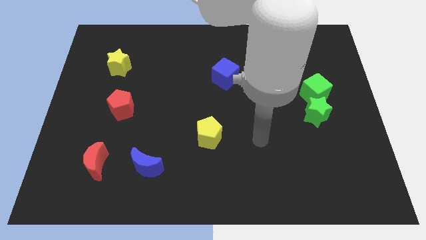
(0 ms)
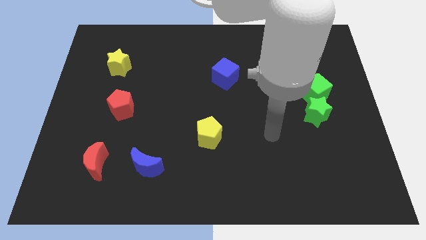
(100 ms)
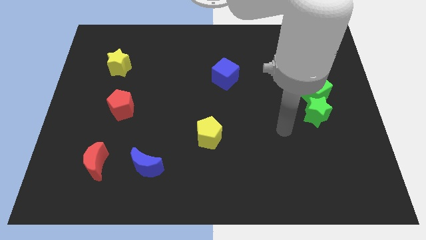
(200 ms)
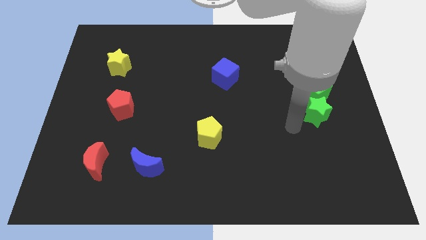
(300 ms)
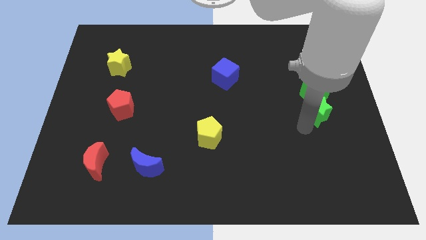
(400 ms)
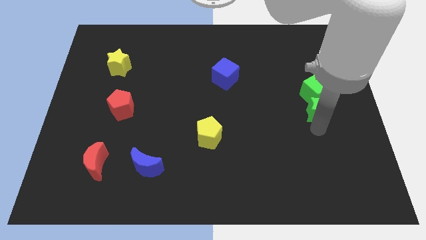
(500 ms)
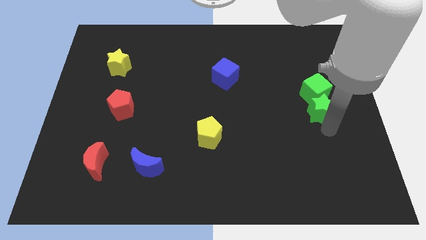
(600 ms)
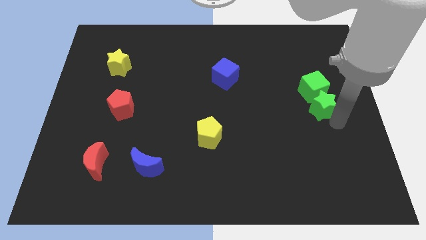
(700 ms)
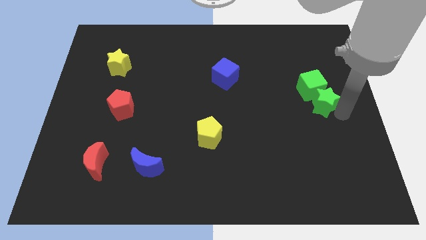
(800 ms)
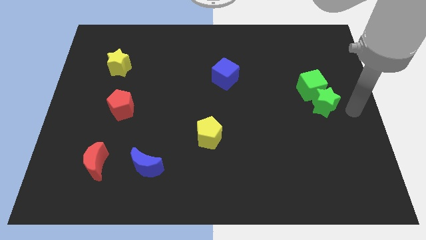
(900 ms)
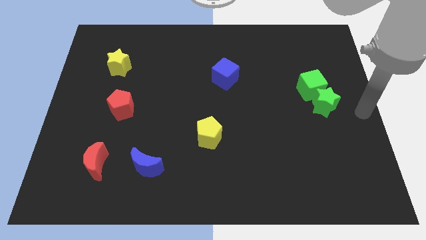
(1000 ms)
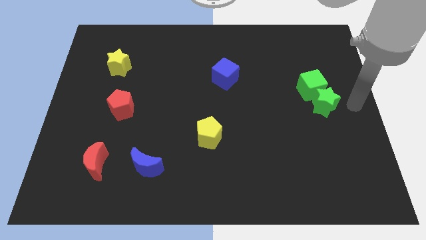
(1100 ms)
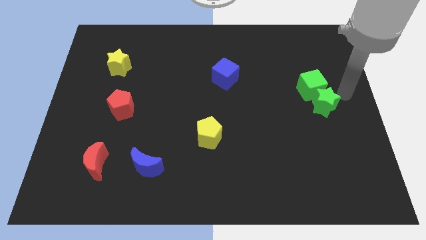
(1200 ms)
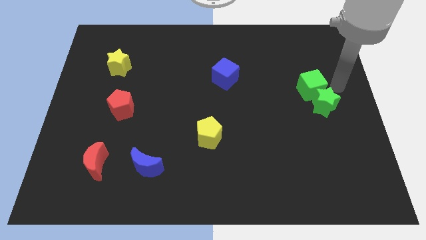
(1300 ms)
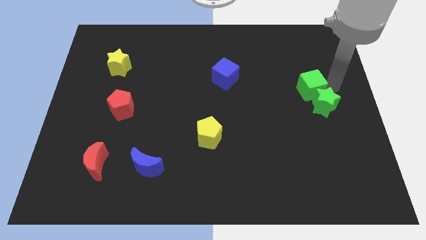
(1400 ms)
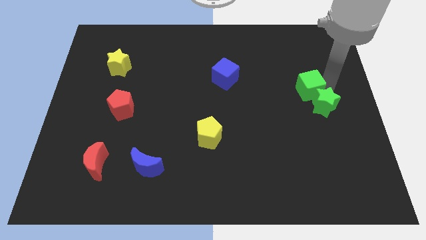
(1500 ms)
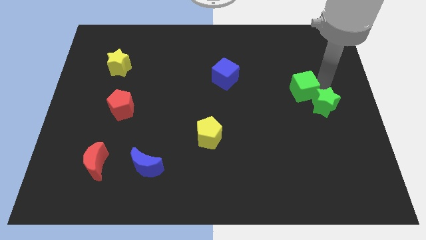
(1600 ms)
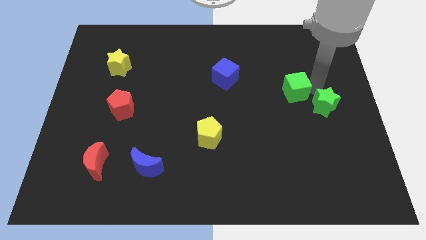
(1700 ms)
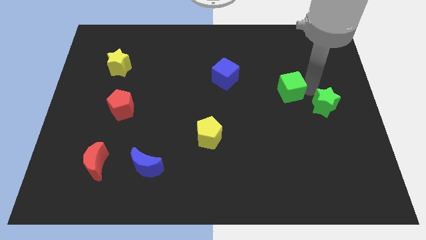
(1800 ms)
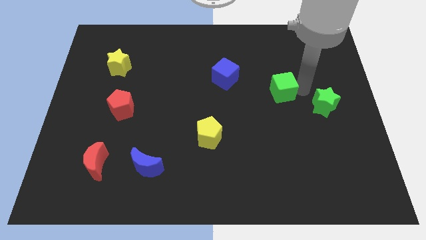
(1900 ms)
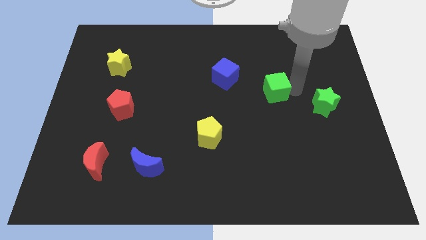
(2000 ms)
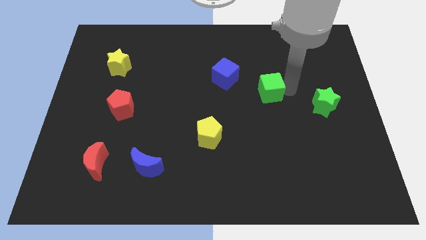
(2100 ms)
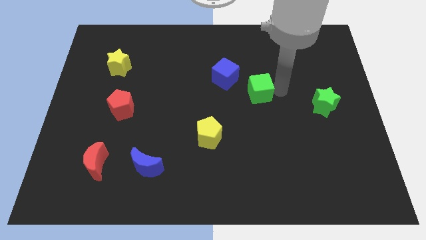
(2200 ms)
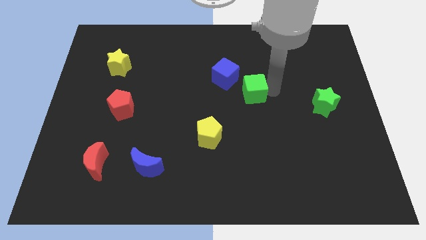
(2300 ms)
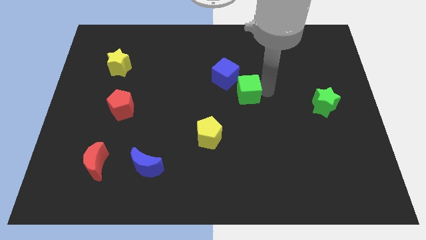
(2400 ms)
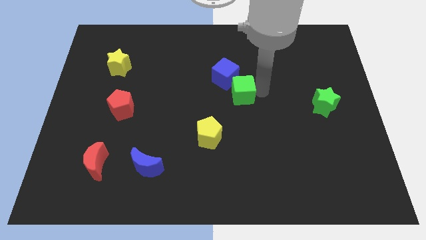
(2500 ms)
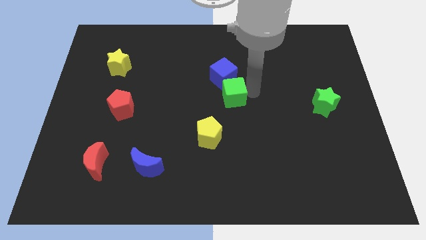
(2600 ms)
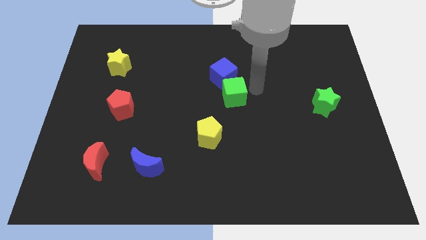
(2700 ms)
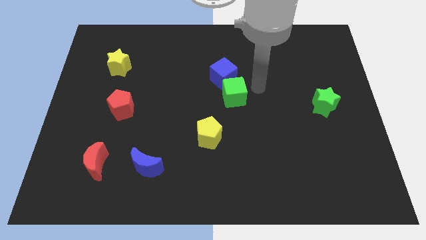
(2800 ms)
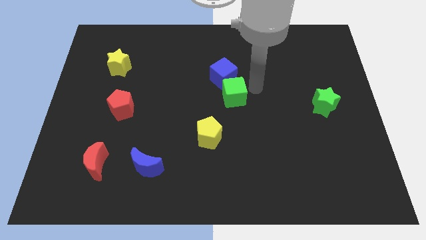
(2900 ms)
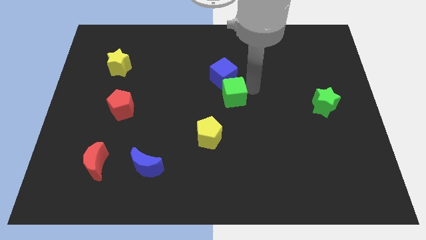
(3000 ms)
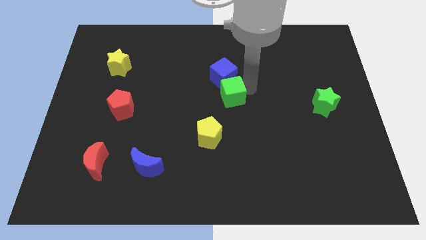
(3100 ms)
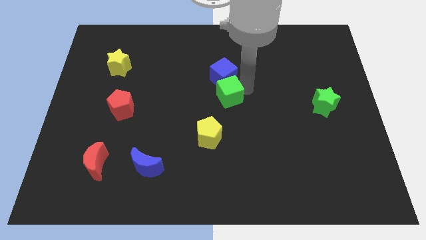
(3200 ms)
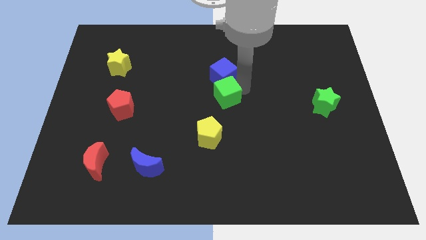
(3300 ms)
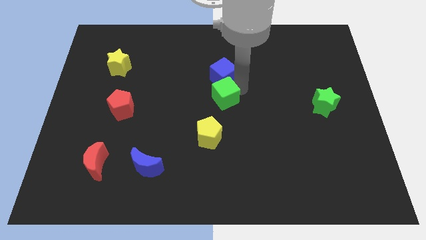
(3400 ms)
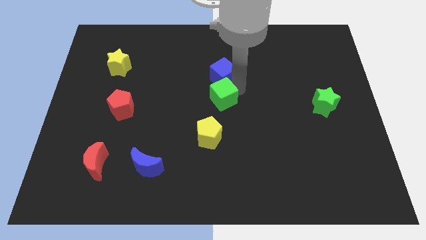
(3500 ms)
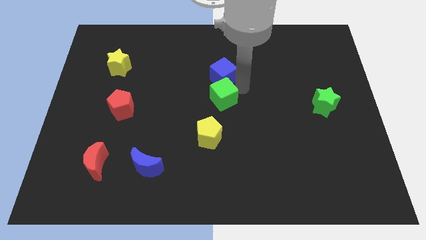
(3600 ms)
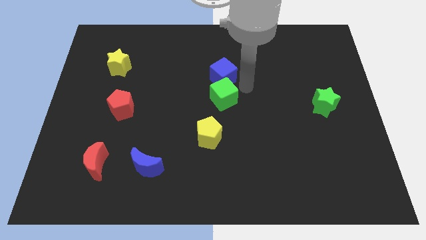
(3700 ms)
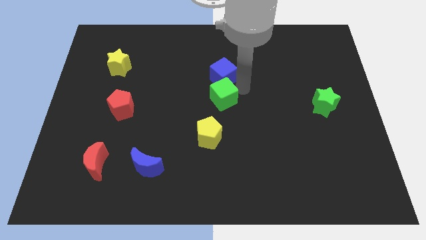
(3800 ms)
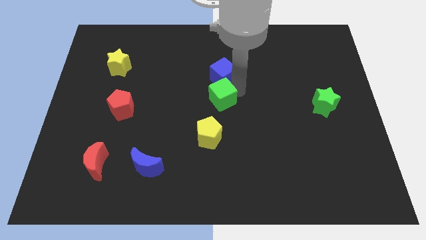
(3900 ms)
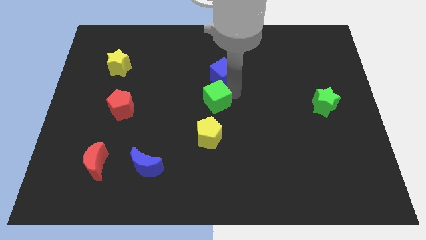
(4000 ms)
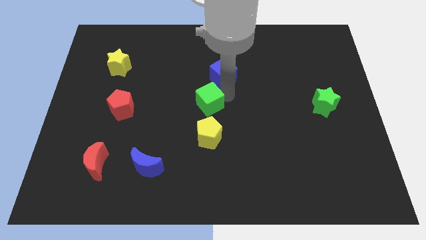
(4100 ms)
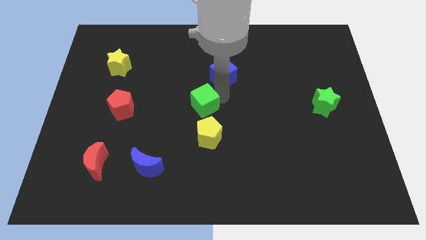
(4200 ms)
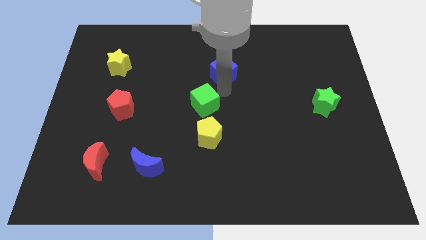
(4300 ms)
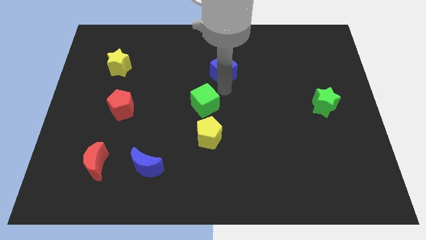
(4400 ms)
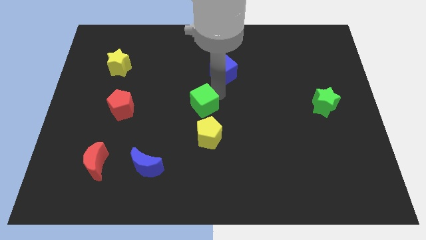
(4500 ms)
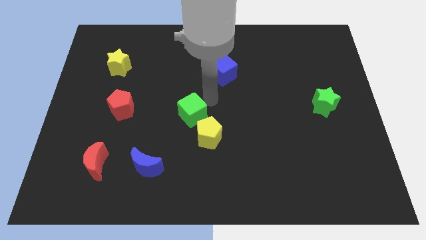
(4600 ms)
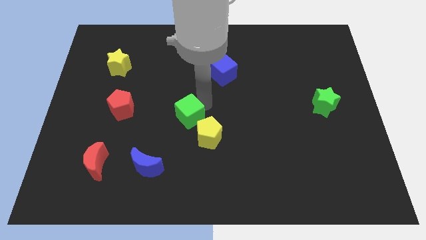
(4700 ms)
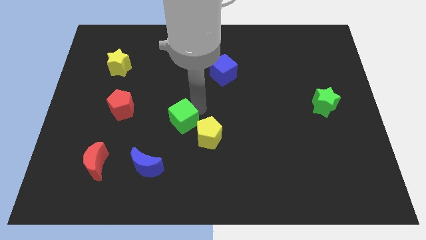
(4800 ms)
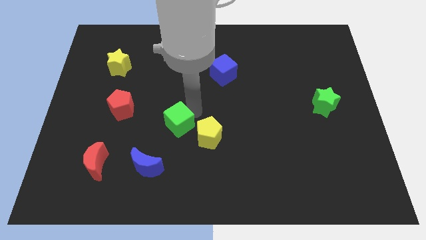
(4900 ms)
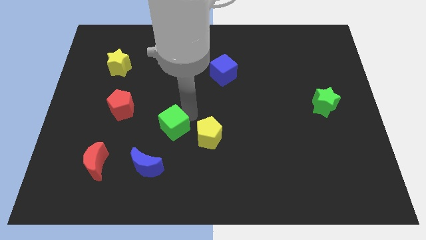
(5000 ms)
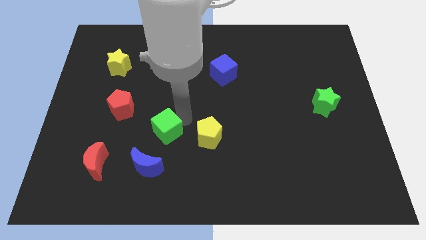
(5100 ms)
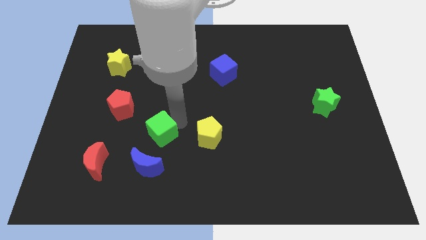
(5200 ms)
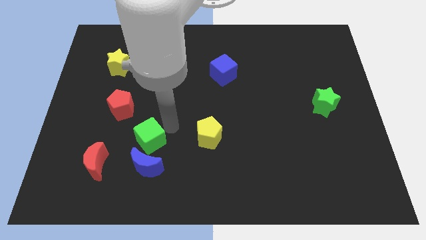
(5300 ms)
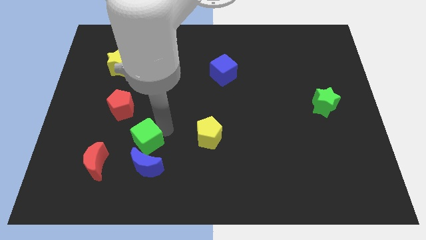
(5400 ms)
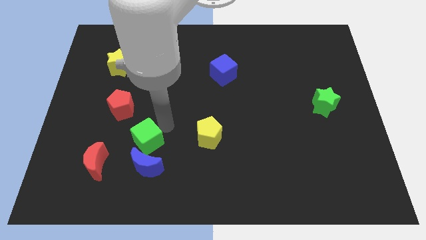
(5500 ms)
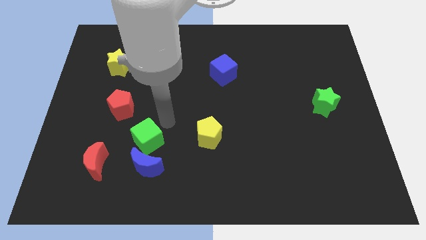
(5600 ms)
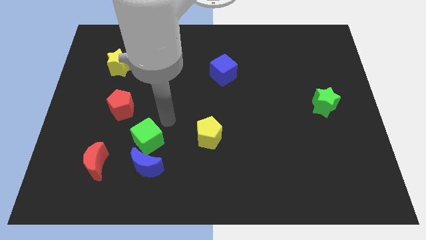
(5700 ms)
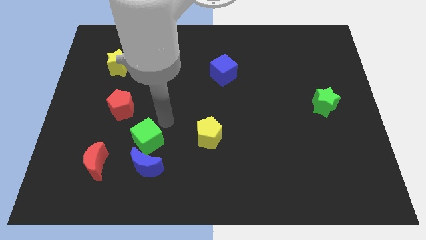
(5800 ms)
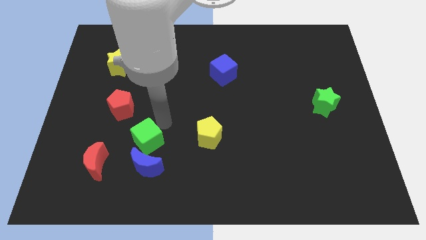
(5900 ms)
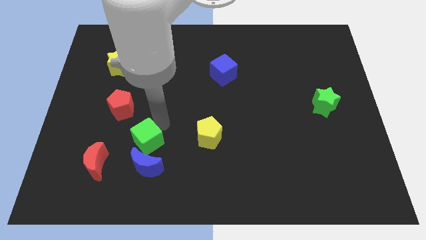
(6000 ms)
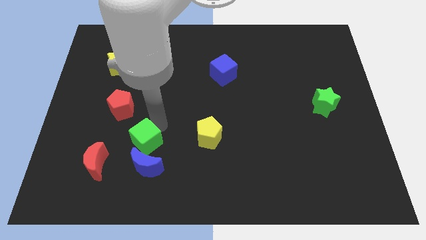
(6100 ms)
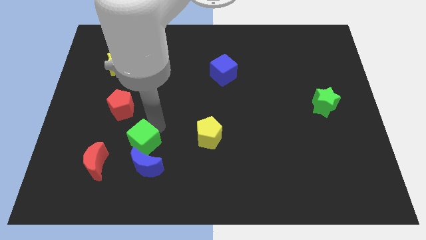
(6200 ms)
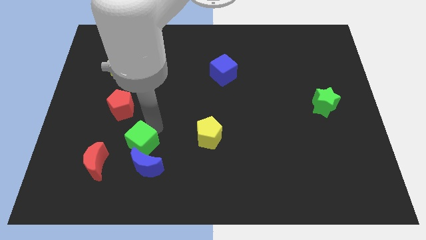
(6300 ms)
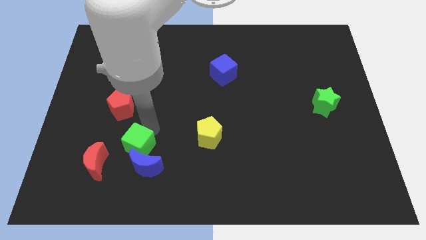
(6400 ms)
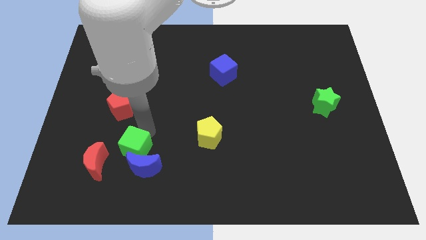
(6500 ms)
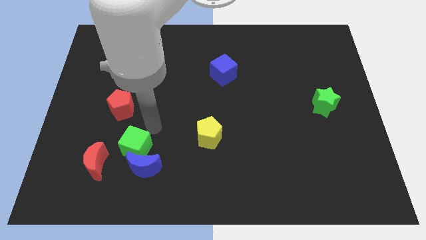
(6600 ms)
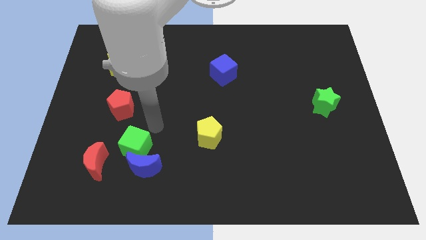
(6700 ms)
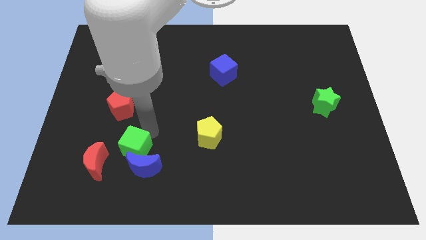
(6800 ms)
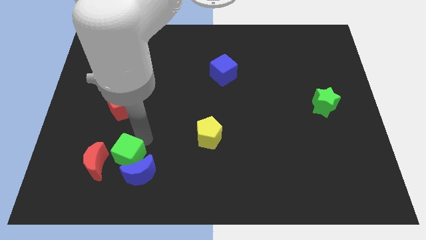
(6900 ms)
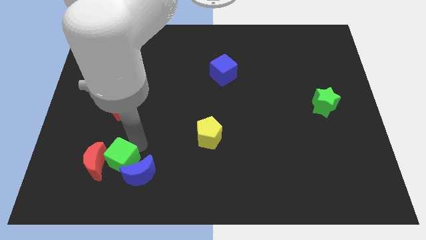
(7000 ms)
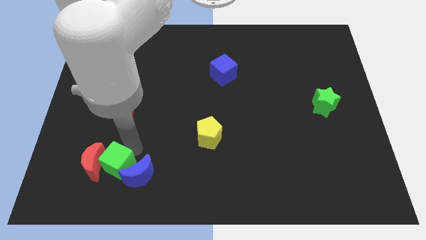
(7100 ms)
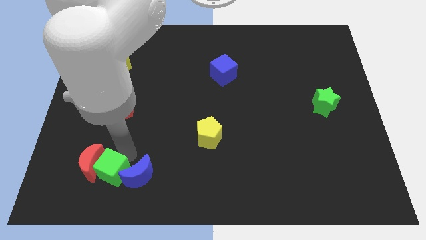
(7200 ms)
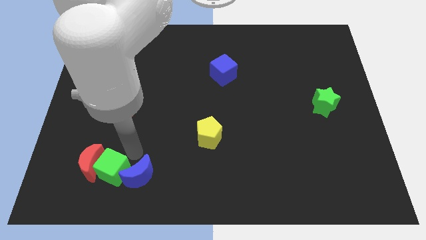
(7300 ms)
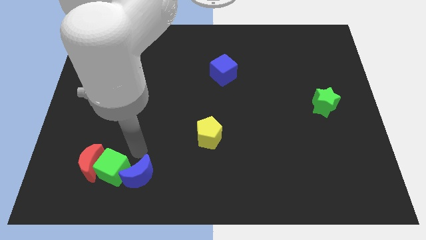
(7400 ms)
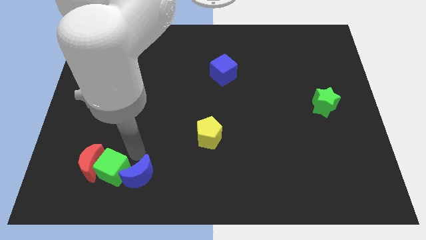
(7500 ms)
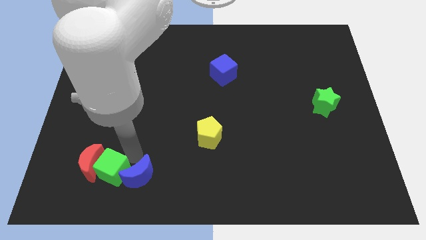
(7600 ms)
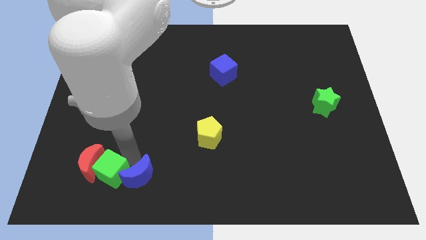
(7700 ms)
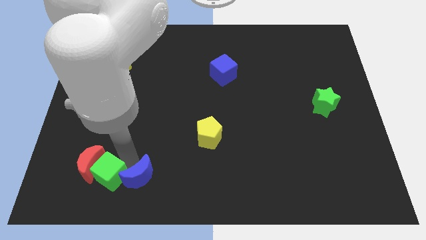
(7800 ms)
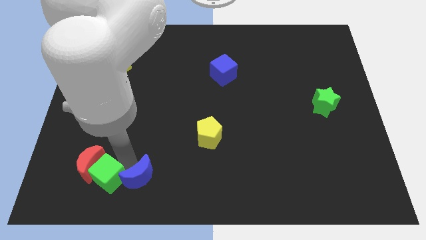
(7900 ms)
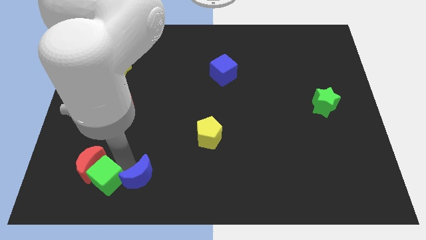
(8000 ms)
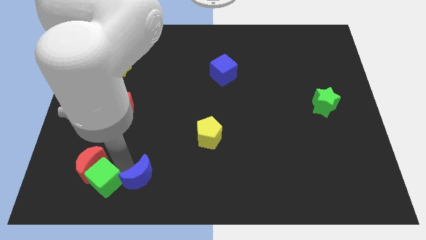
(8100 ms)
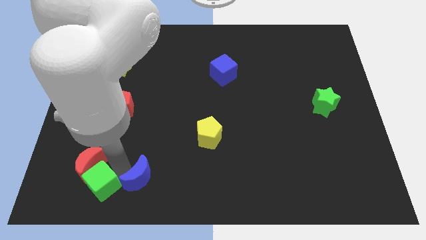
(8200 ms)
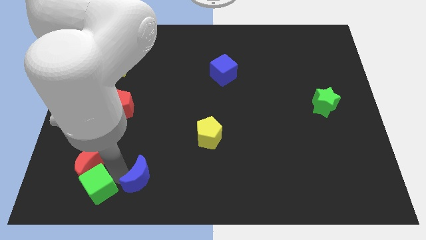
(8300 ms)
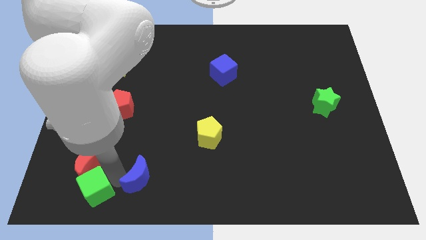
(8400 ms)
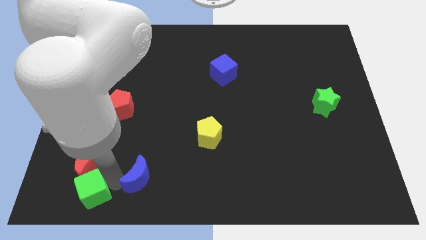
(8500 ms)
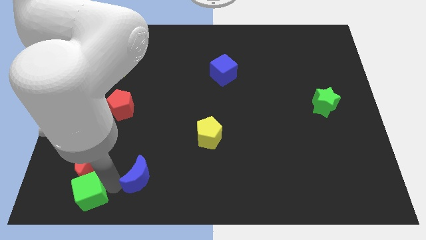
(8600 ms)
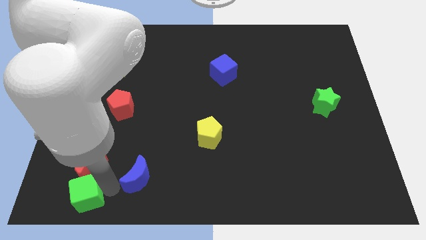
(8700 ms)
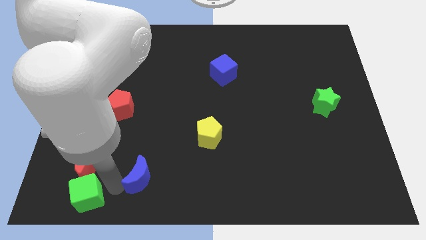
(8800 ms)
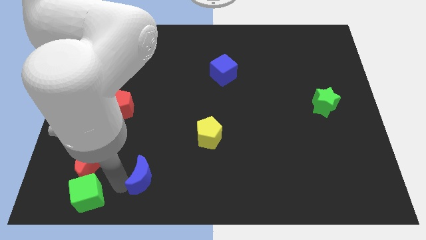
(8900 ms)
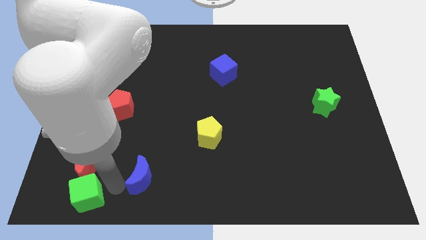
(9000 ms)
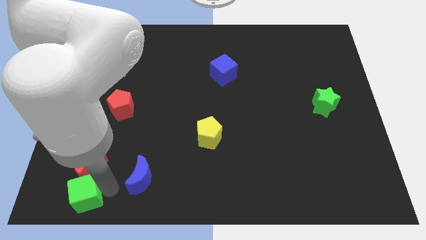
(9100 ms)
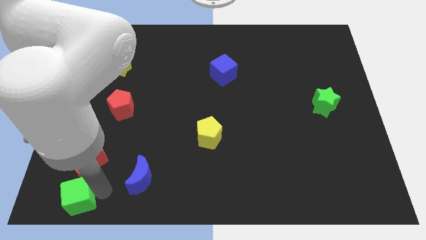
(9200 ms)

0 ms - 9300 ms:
slide the green cube to the lower left corner
